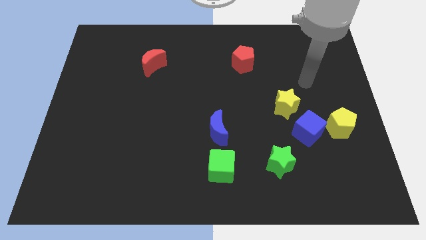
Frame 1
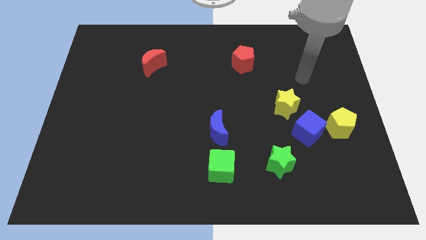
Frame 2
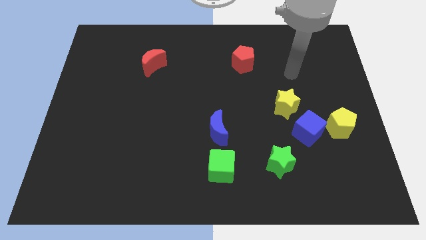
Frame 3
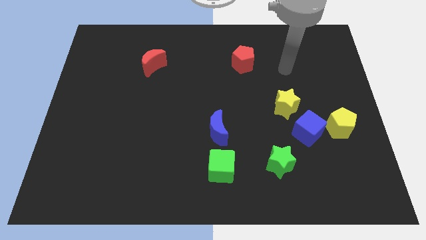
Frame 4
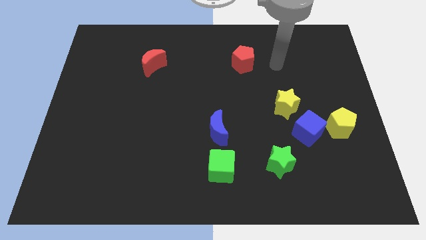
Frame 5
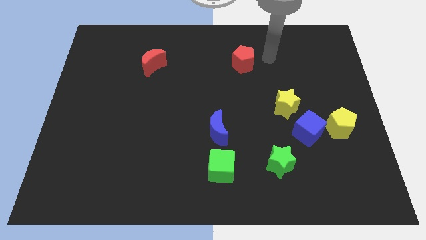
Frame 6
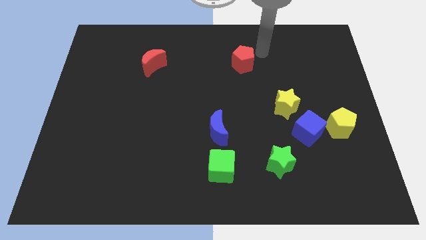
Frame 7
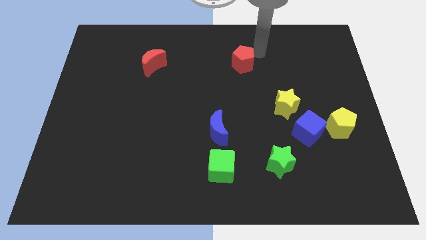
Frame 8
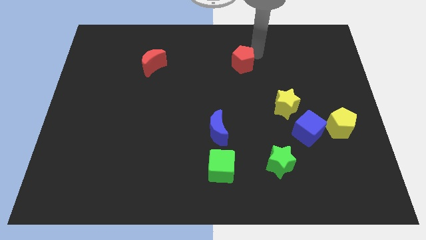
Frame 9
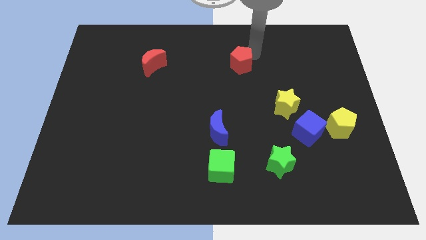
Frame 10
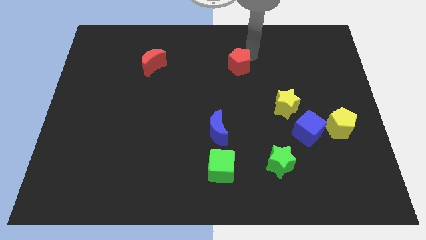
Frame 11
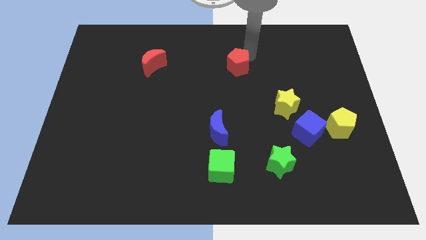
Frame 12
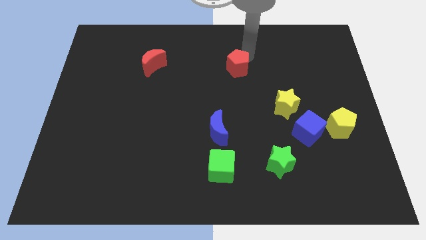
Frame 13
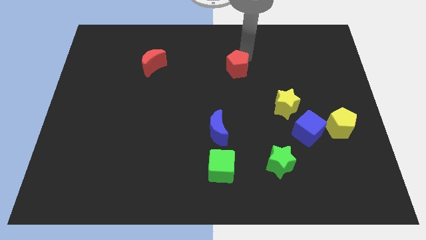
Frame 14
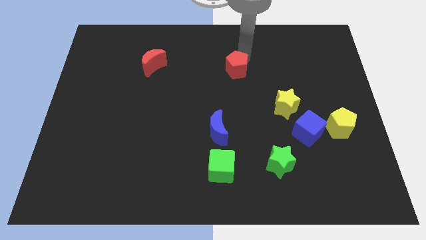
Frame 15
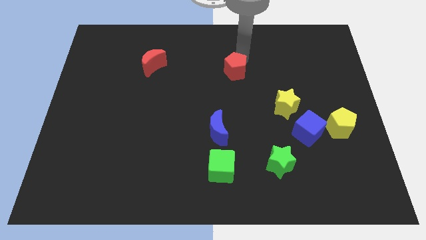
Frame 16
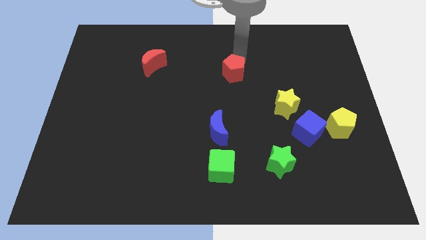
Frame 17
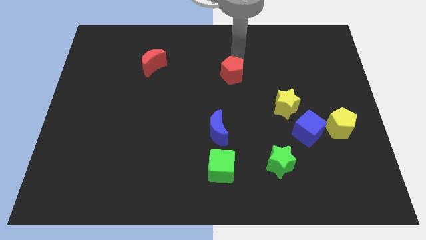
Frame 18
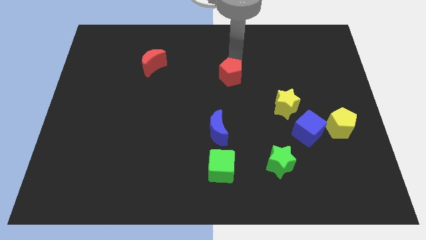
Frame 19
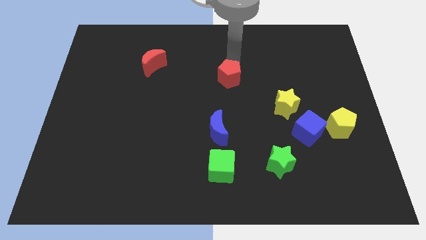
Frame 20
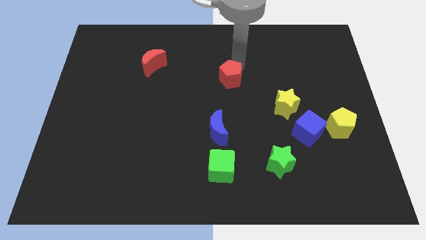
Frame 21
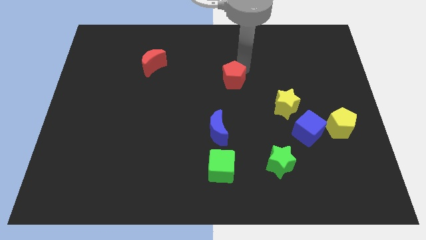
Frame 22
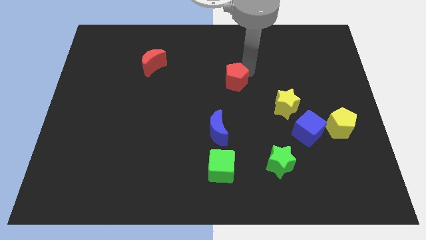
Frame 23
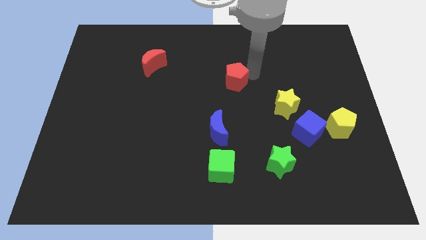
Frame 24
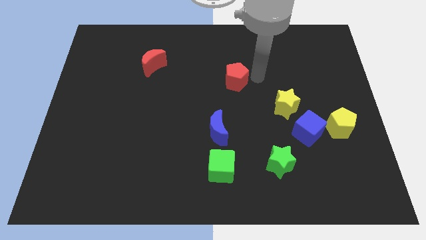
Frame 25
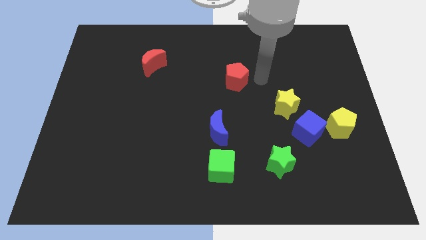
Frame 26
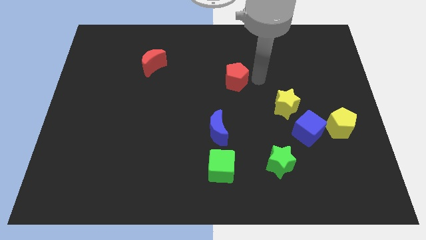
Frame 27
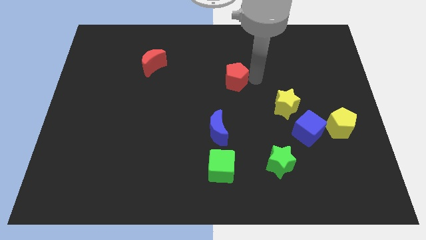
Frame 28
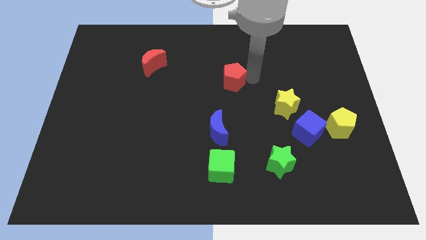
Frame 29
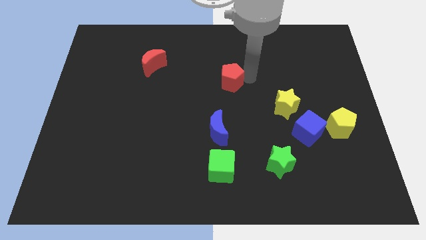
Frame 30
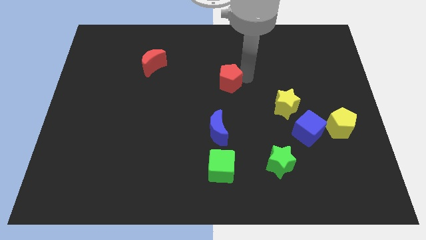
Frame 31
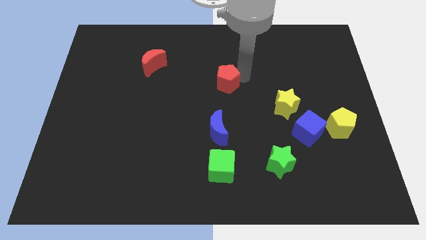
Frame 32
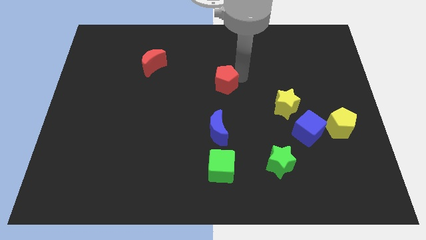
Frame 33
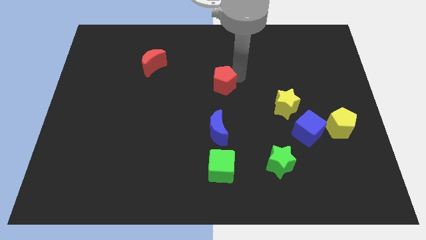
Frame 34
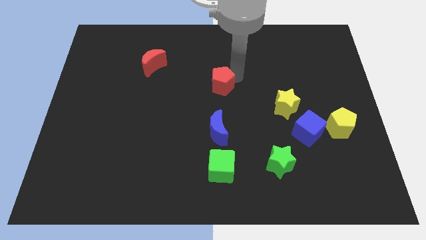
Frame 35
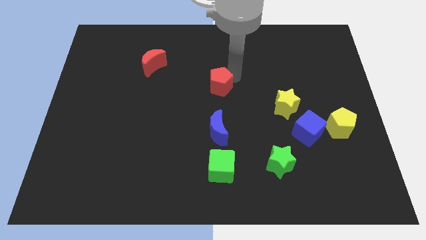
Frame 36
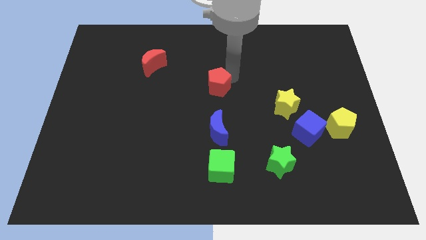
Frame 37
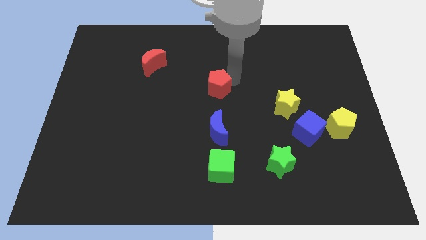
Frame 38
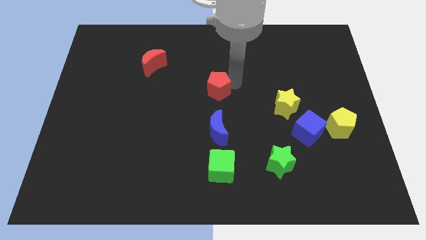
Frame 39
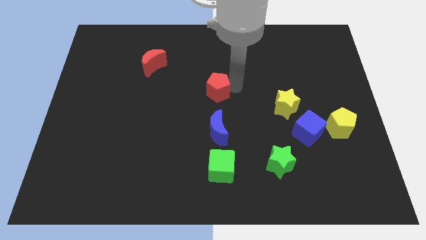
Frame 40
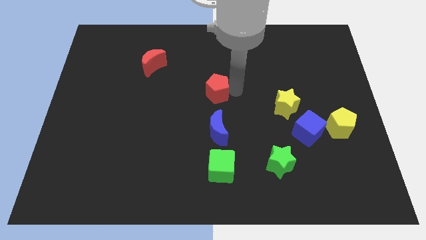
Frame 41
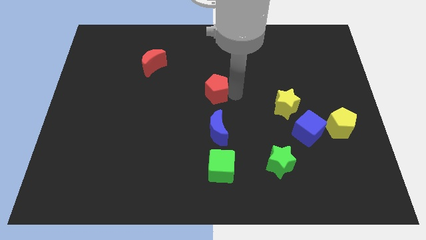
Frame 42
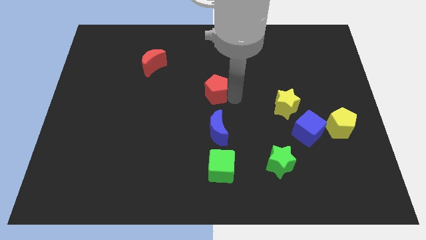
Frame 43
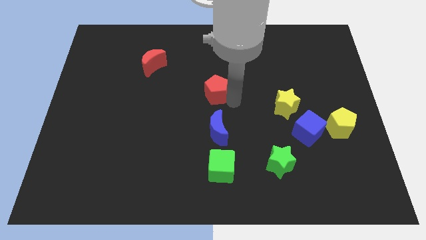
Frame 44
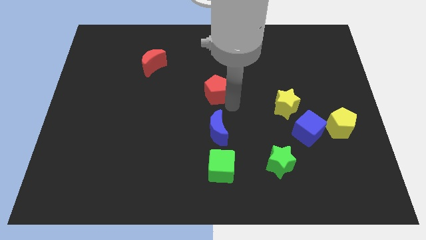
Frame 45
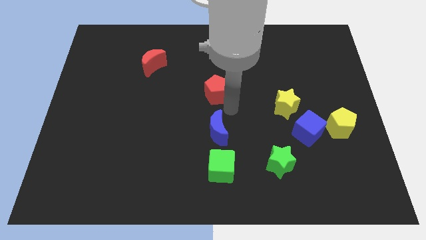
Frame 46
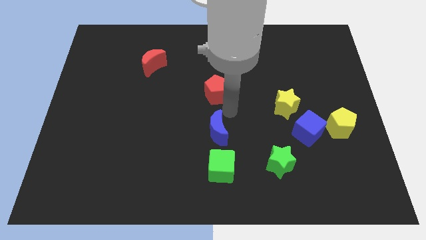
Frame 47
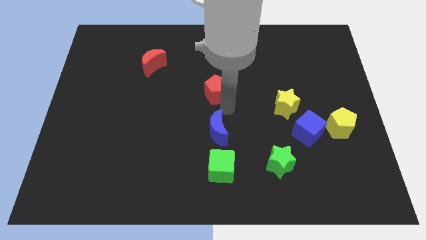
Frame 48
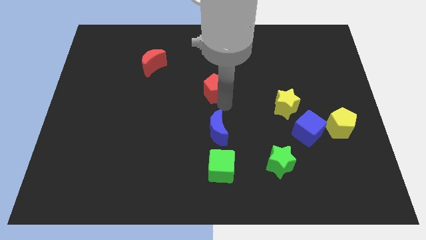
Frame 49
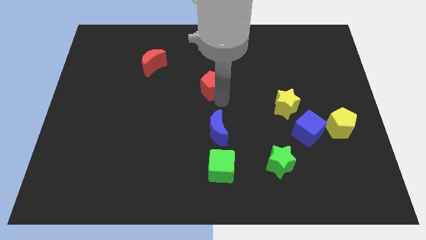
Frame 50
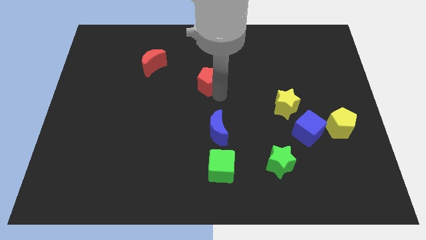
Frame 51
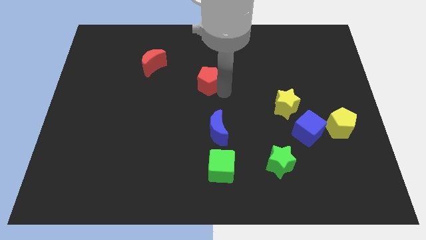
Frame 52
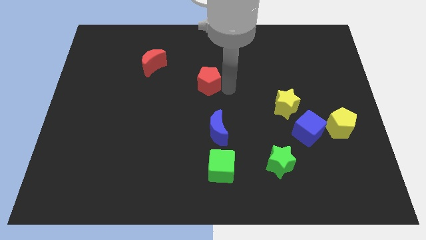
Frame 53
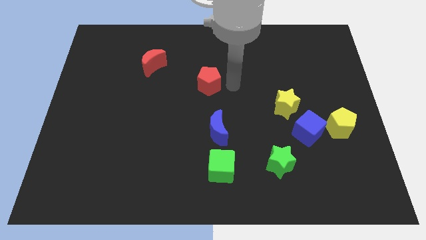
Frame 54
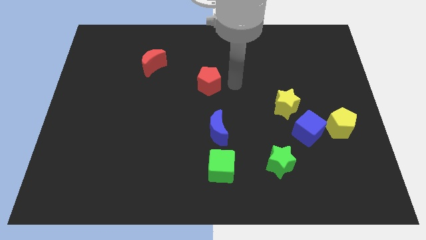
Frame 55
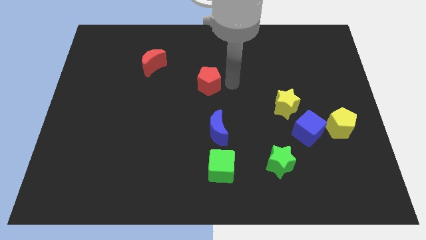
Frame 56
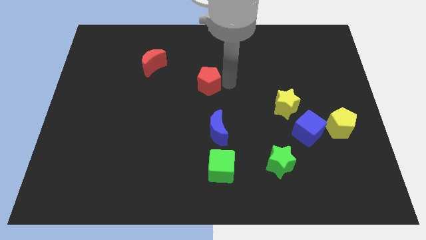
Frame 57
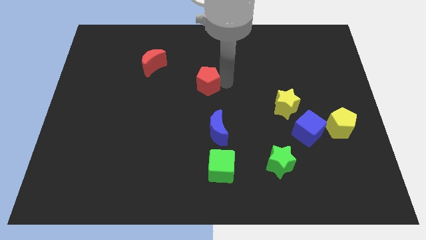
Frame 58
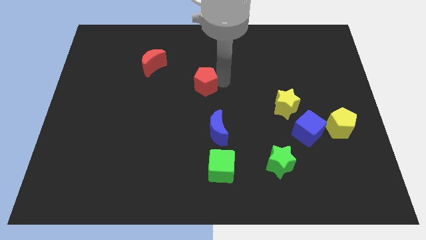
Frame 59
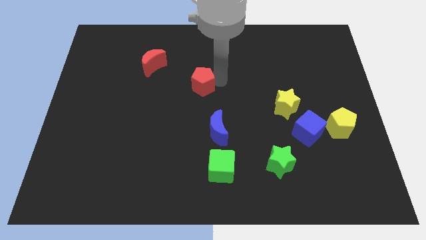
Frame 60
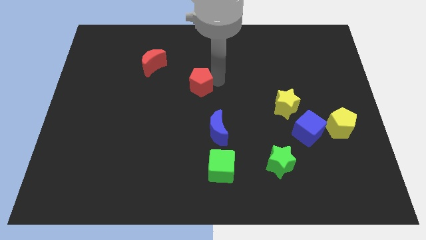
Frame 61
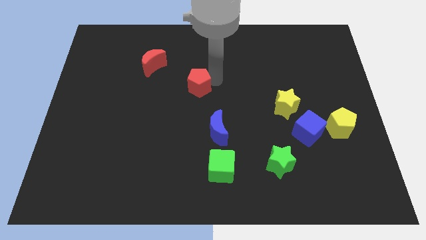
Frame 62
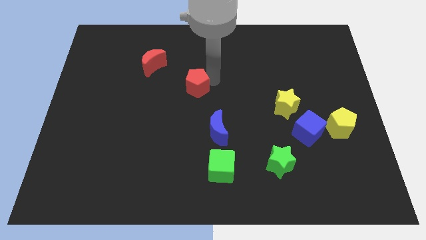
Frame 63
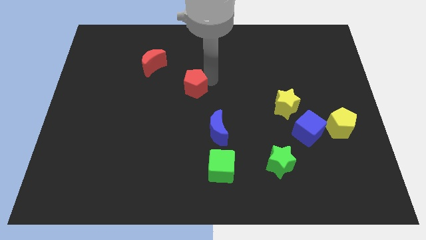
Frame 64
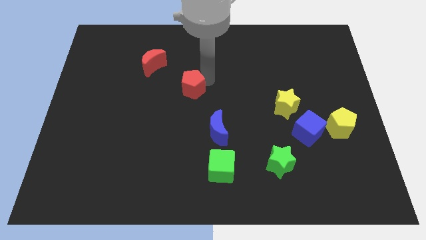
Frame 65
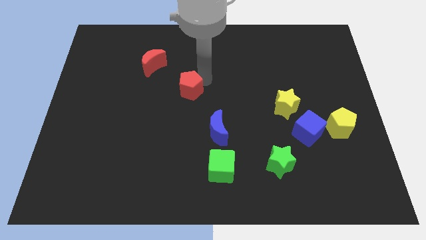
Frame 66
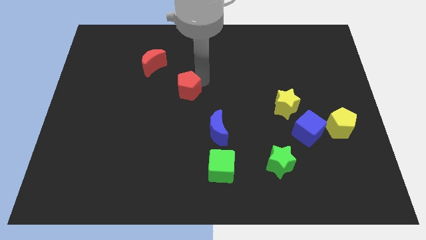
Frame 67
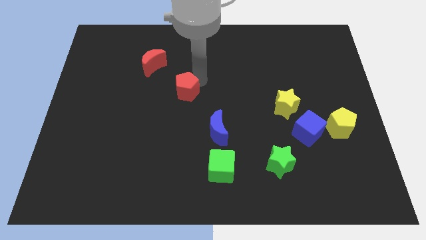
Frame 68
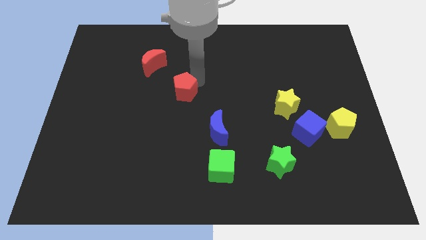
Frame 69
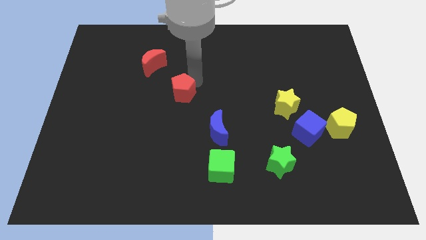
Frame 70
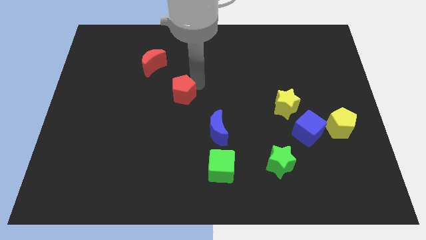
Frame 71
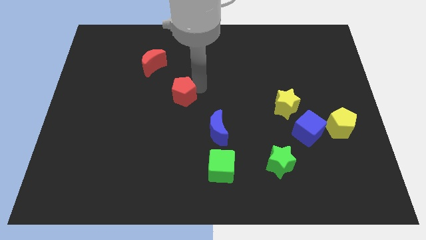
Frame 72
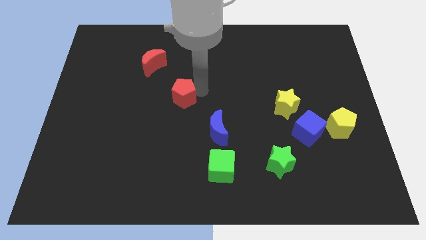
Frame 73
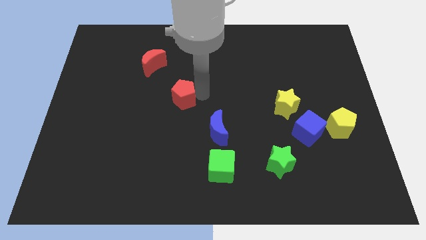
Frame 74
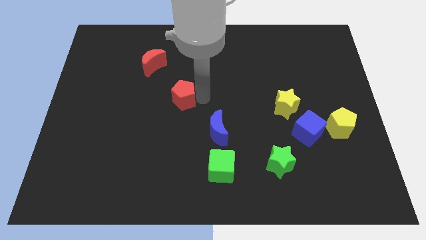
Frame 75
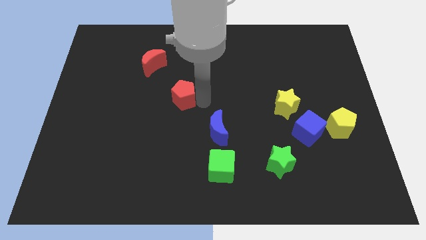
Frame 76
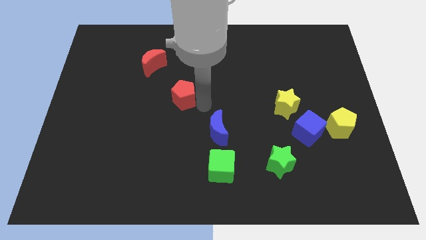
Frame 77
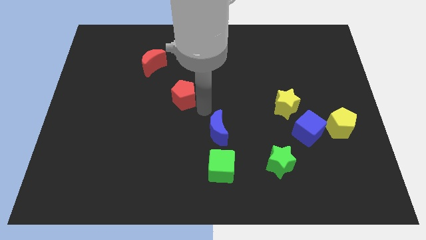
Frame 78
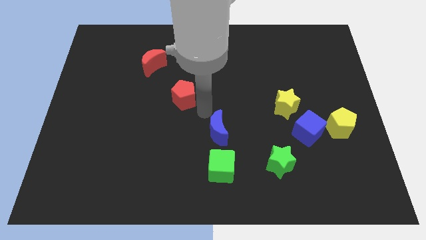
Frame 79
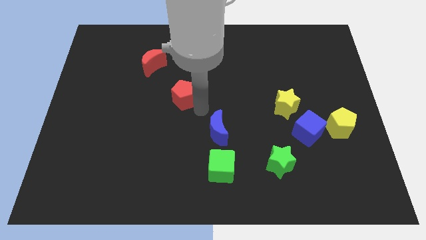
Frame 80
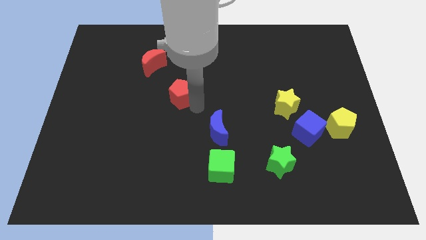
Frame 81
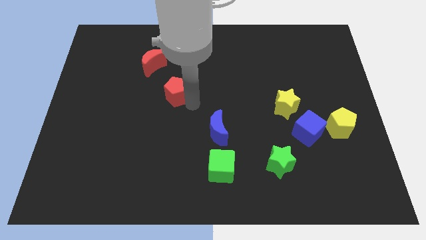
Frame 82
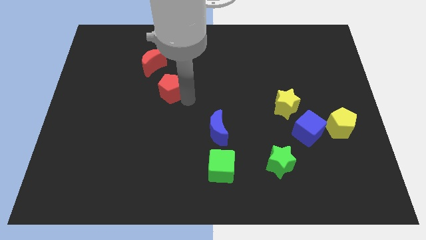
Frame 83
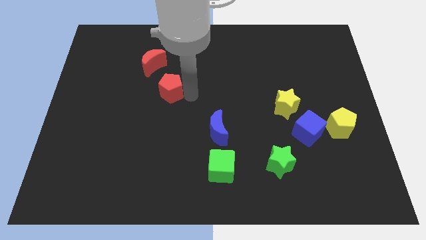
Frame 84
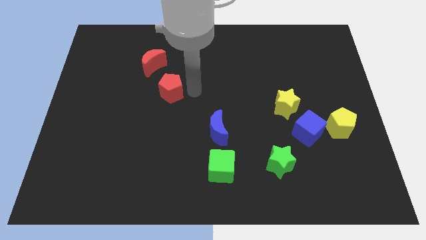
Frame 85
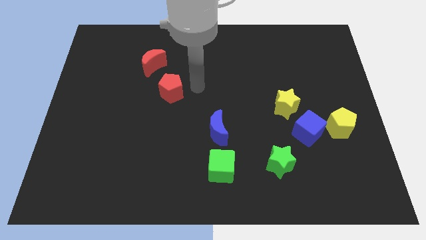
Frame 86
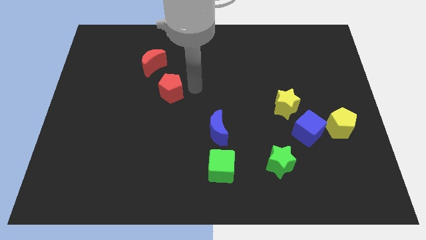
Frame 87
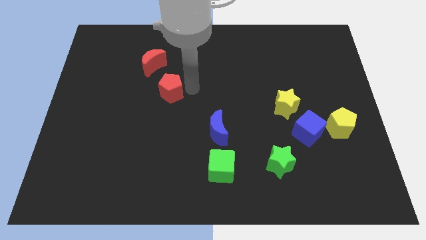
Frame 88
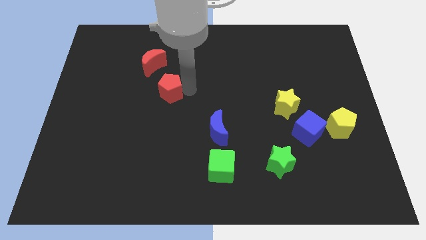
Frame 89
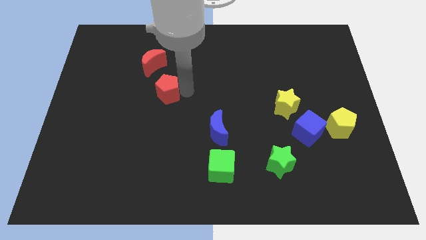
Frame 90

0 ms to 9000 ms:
move the red pentagon to the bottom side of the red moon
